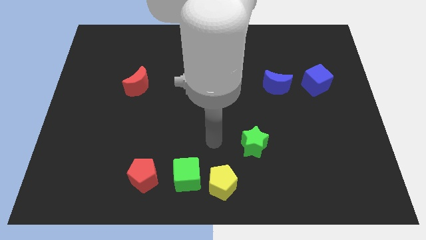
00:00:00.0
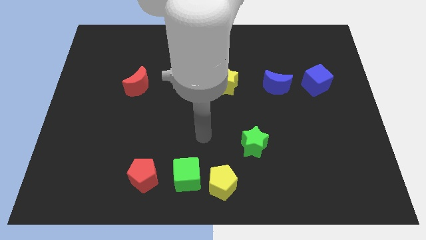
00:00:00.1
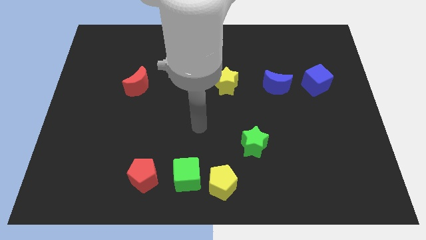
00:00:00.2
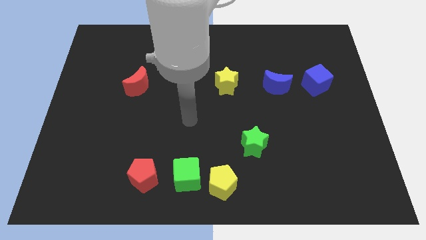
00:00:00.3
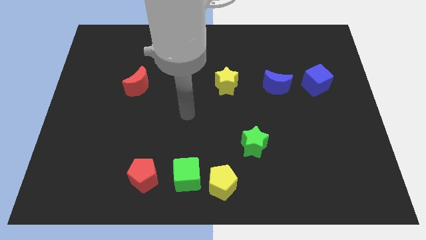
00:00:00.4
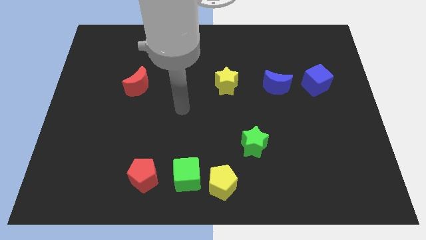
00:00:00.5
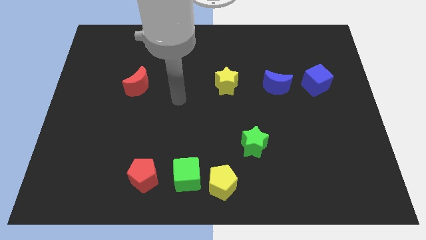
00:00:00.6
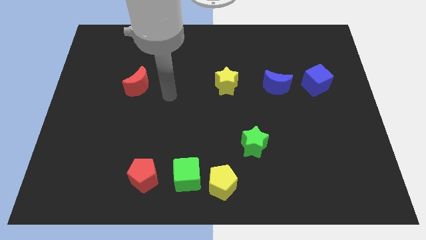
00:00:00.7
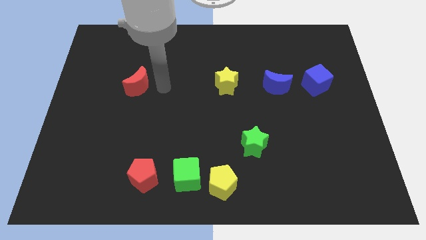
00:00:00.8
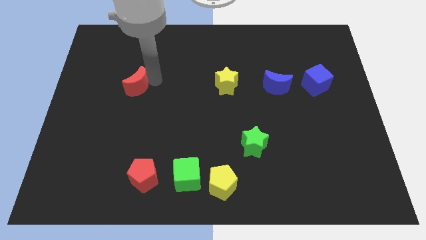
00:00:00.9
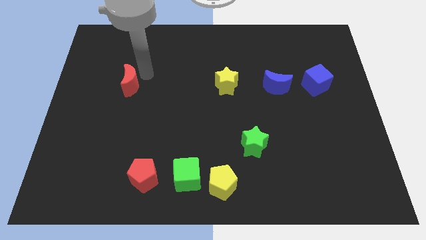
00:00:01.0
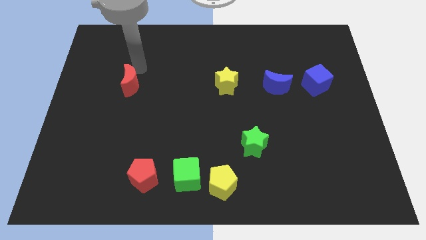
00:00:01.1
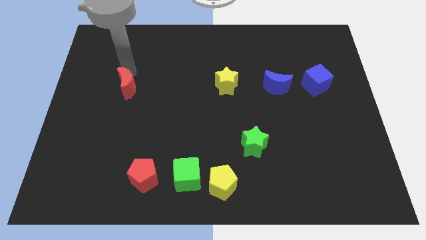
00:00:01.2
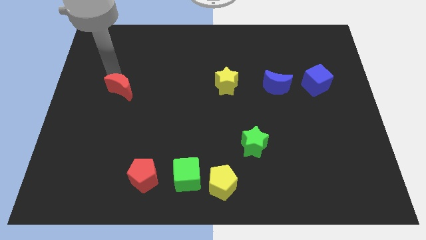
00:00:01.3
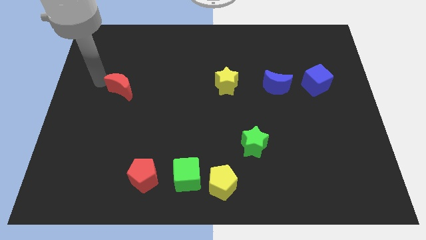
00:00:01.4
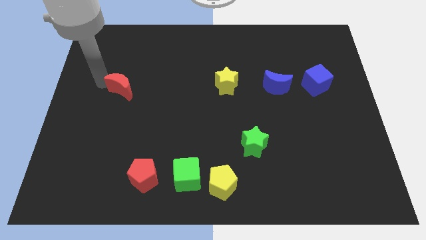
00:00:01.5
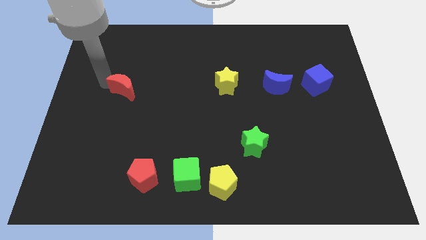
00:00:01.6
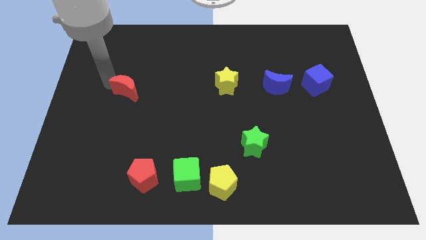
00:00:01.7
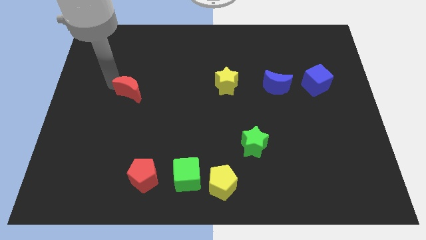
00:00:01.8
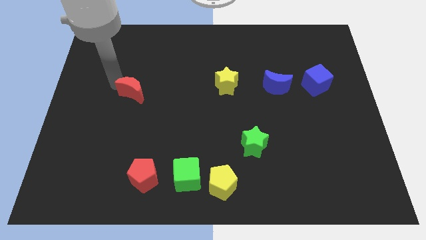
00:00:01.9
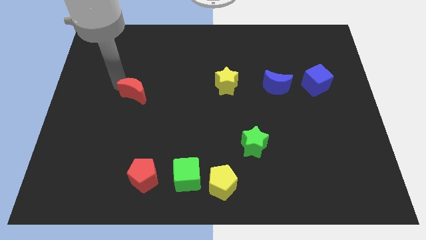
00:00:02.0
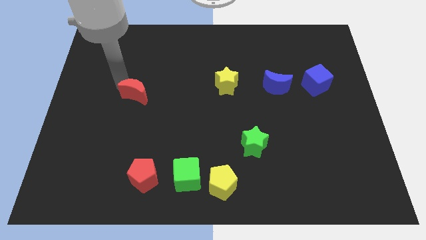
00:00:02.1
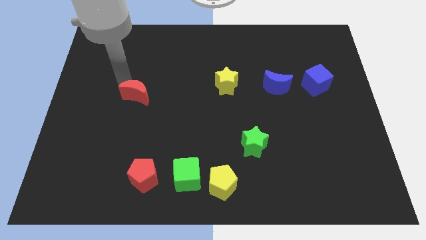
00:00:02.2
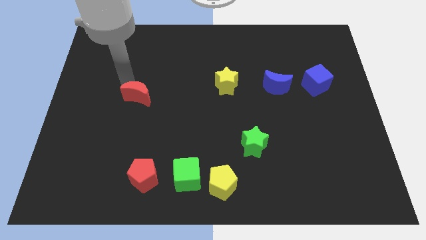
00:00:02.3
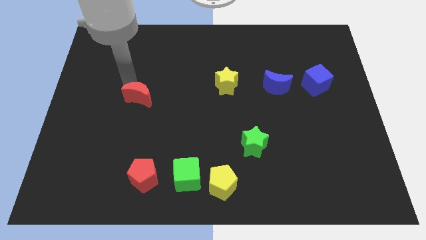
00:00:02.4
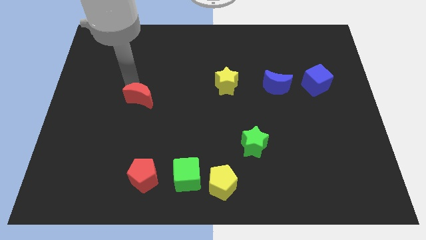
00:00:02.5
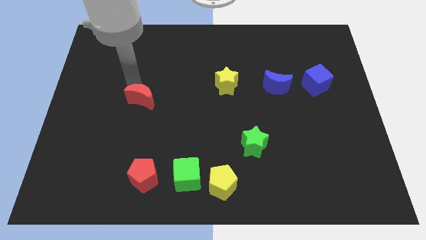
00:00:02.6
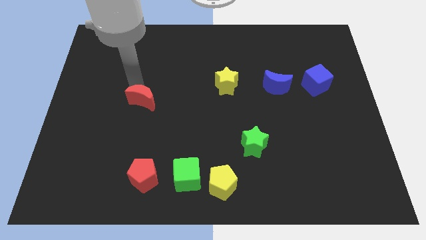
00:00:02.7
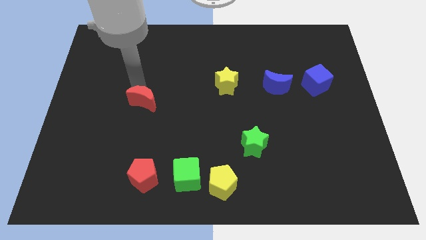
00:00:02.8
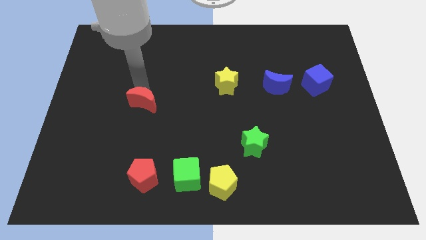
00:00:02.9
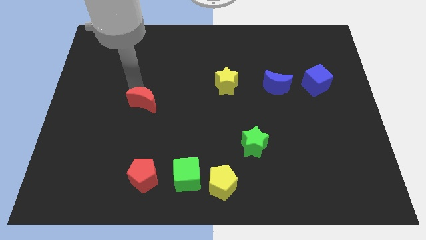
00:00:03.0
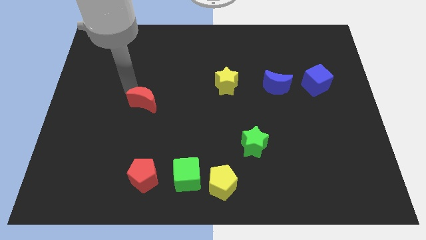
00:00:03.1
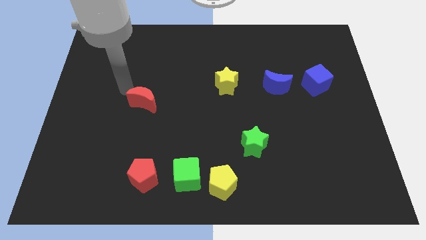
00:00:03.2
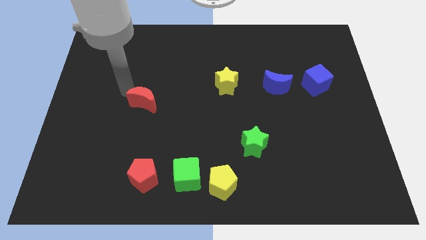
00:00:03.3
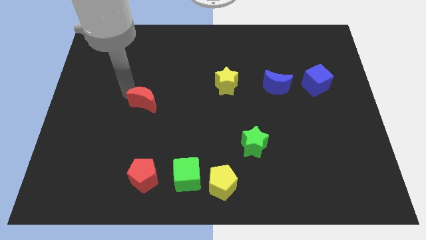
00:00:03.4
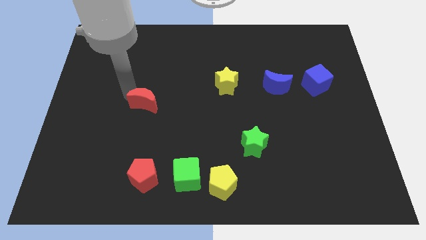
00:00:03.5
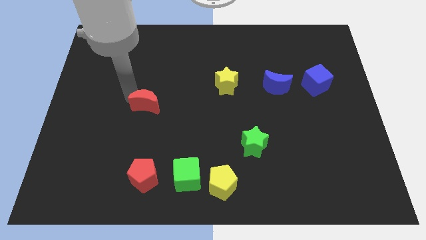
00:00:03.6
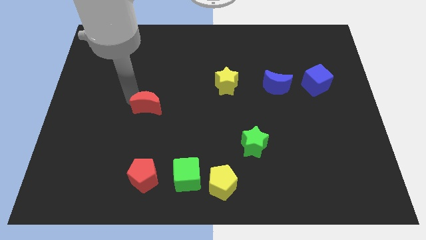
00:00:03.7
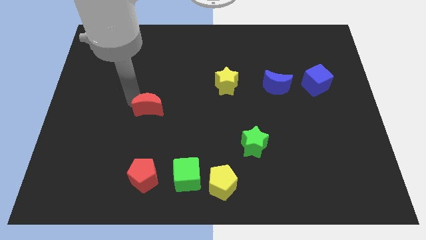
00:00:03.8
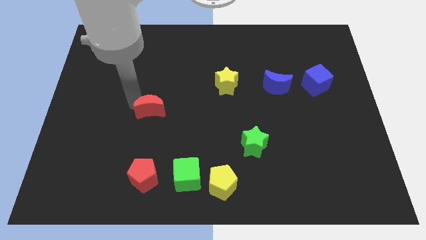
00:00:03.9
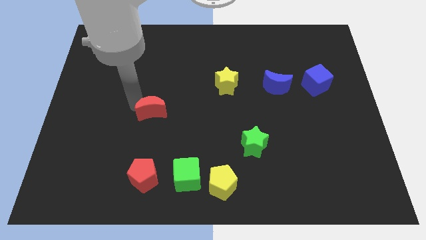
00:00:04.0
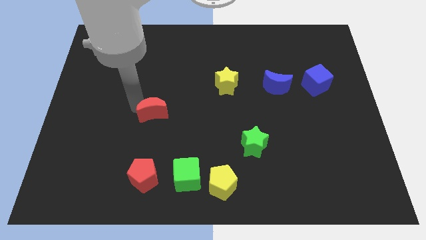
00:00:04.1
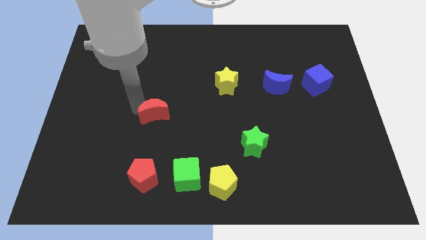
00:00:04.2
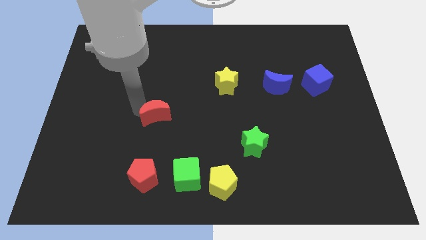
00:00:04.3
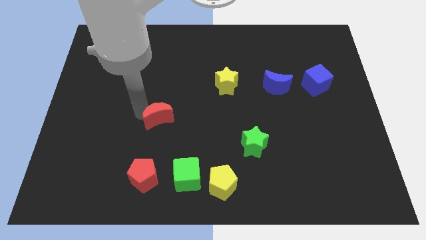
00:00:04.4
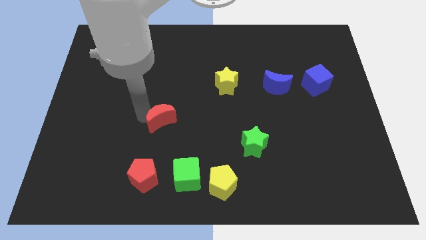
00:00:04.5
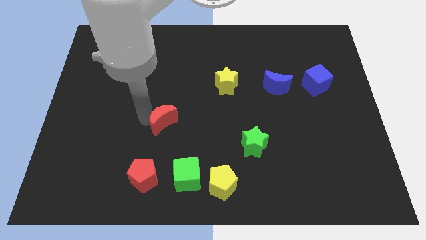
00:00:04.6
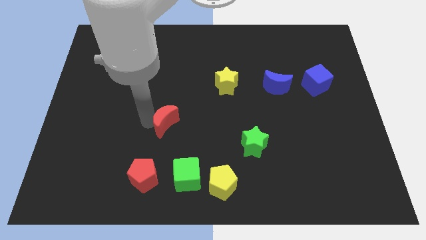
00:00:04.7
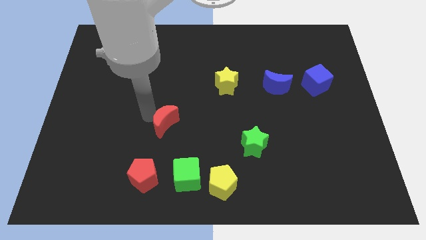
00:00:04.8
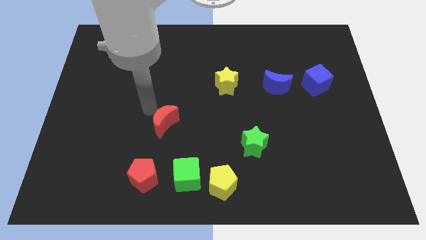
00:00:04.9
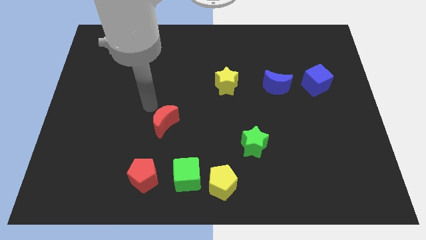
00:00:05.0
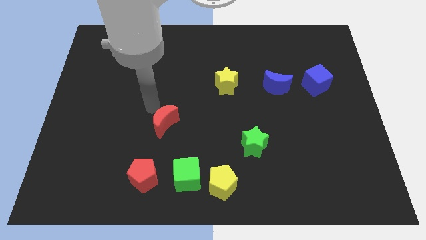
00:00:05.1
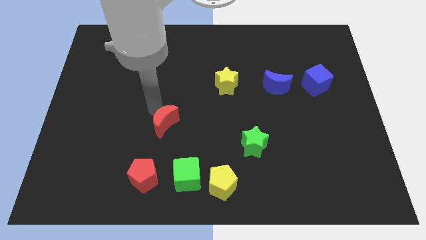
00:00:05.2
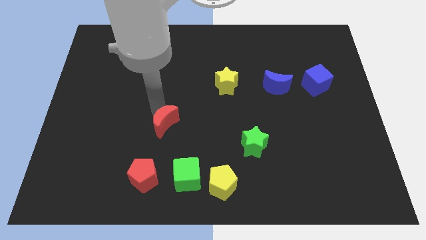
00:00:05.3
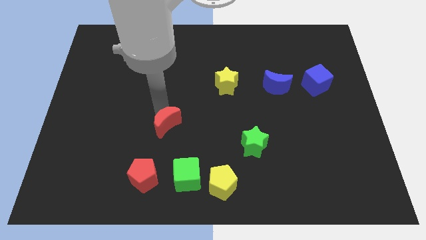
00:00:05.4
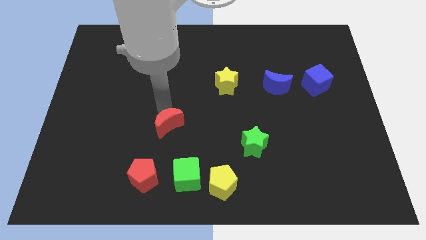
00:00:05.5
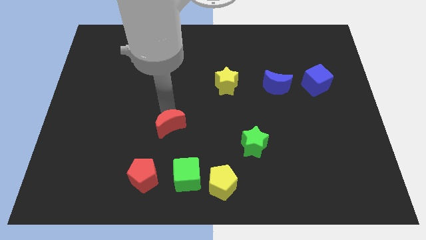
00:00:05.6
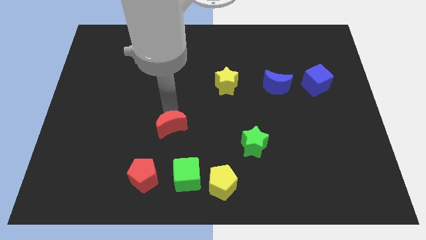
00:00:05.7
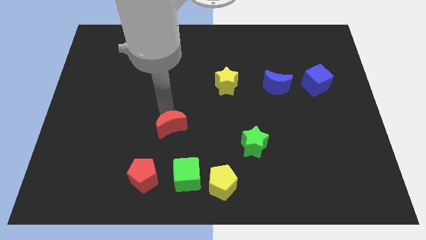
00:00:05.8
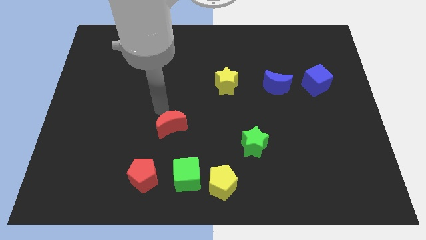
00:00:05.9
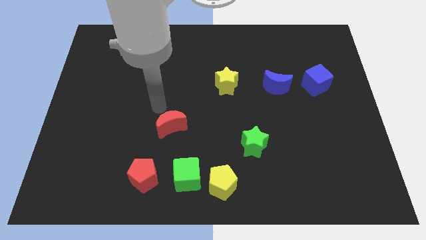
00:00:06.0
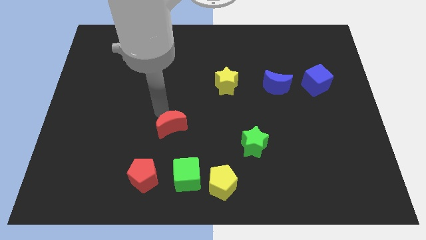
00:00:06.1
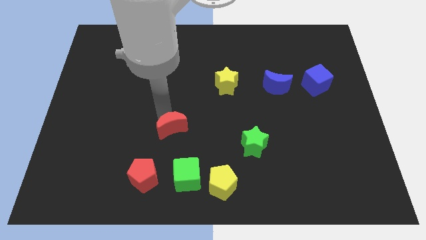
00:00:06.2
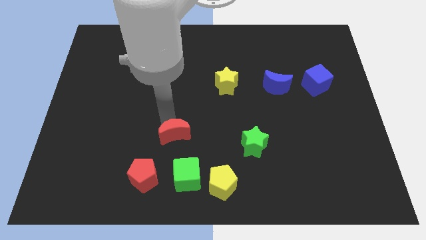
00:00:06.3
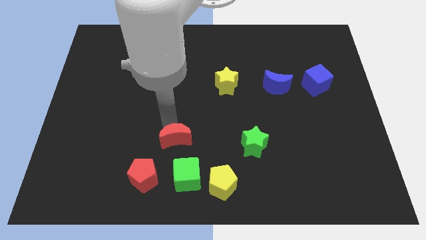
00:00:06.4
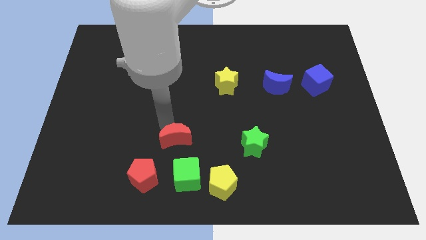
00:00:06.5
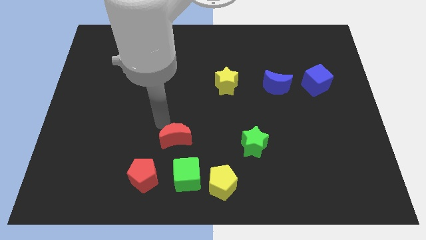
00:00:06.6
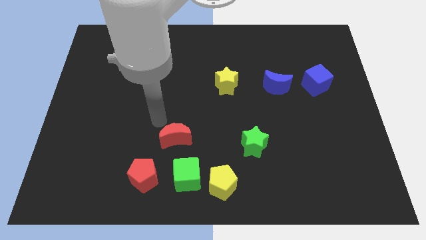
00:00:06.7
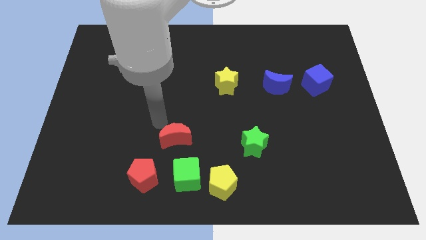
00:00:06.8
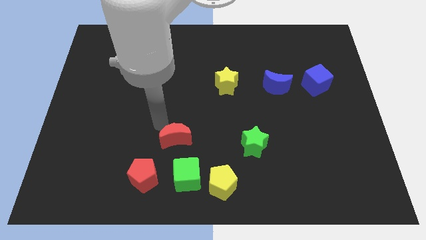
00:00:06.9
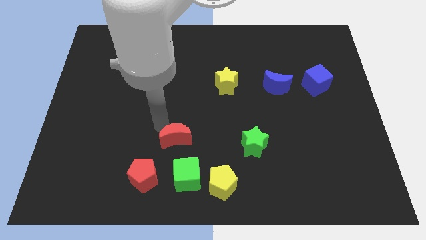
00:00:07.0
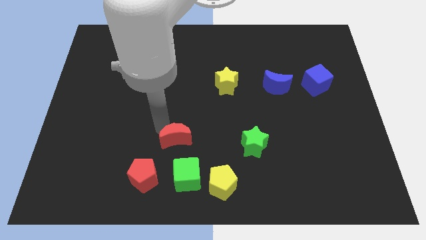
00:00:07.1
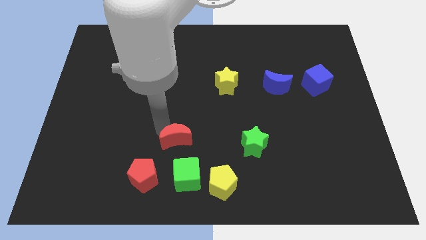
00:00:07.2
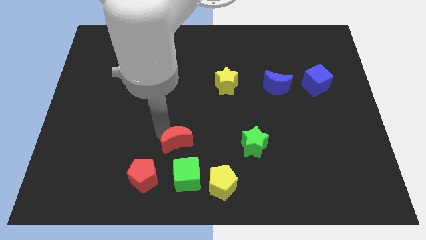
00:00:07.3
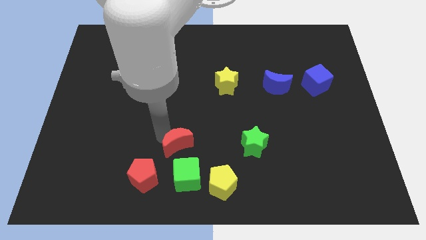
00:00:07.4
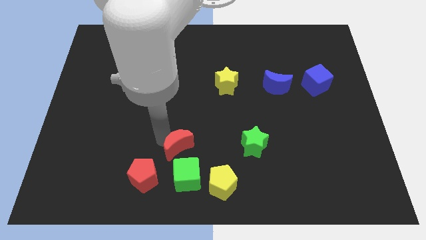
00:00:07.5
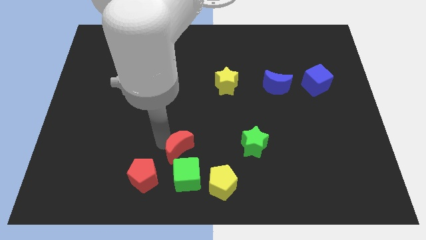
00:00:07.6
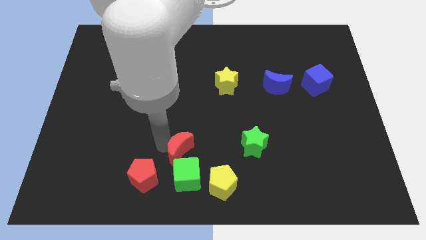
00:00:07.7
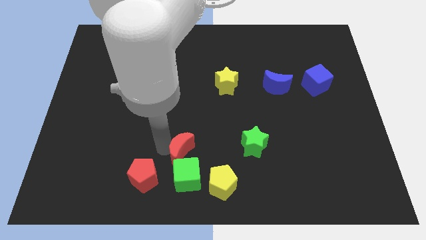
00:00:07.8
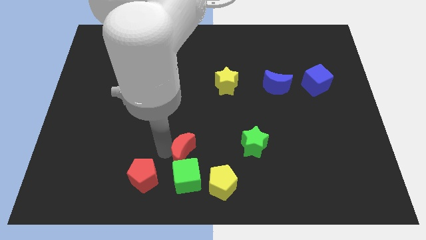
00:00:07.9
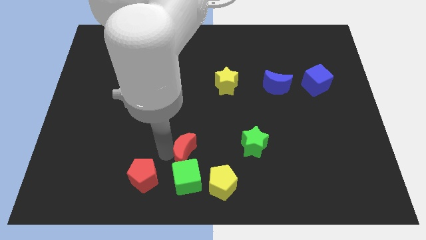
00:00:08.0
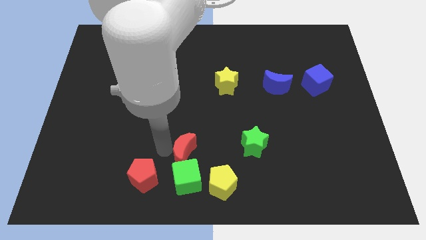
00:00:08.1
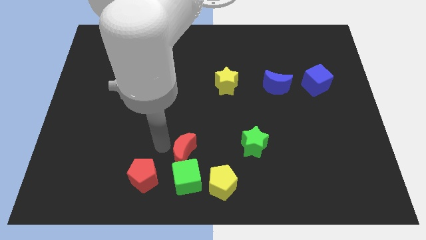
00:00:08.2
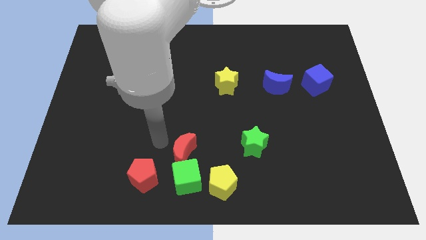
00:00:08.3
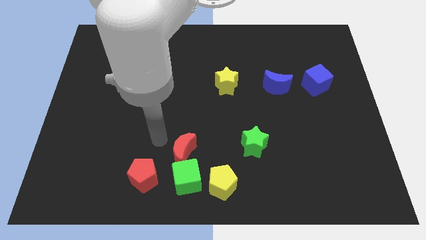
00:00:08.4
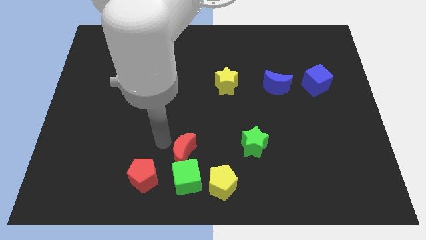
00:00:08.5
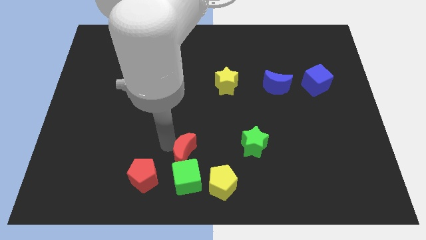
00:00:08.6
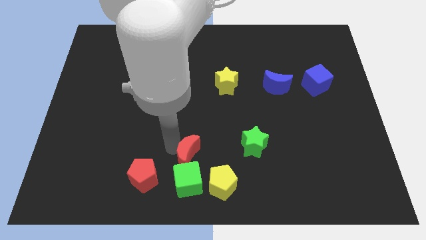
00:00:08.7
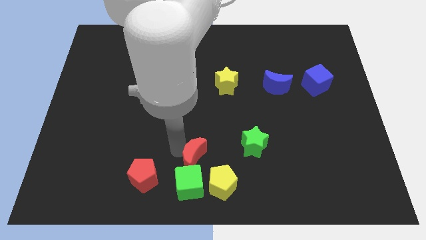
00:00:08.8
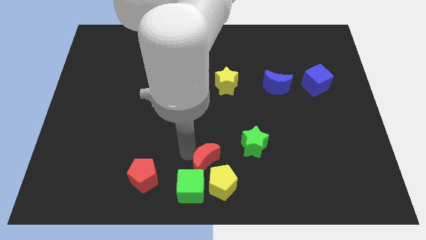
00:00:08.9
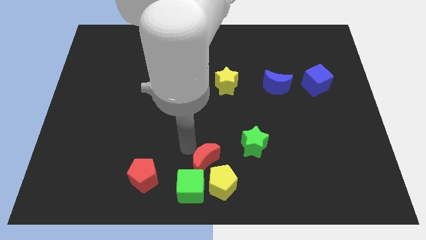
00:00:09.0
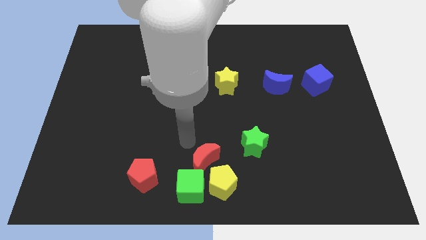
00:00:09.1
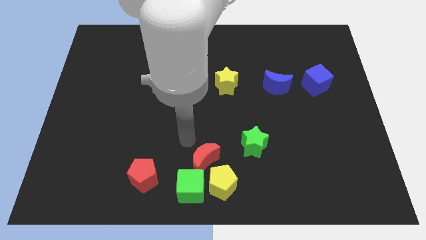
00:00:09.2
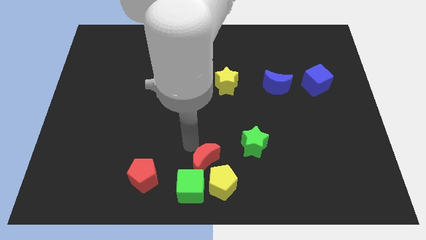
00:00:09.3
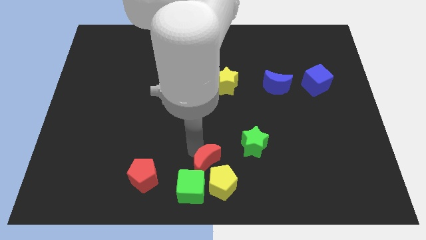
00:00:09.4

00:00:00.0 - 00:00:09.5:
push the red moon next to the yellow pentagon
